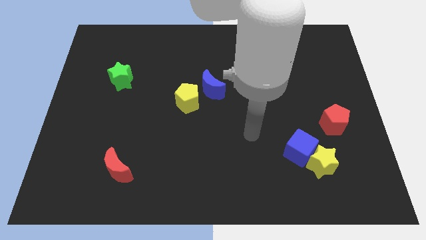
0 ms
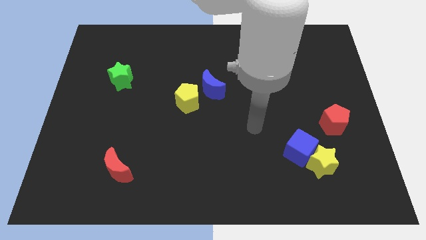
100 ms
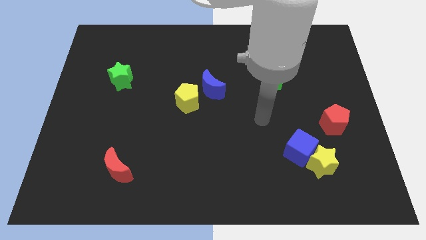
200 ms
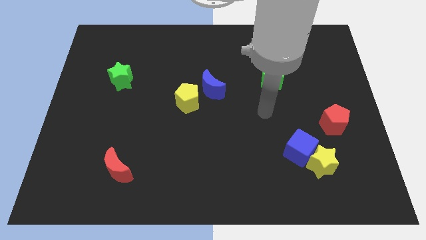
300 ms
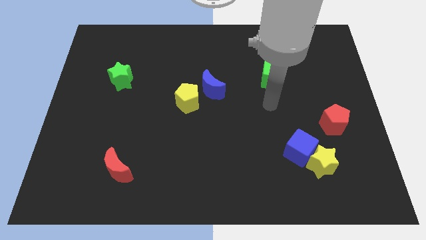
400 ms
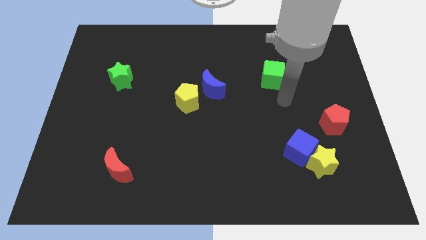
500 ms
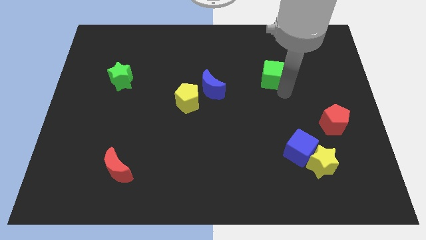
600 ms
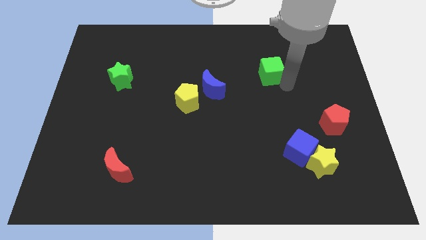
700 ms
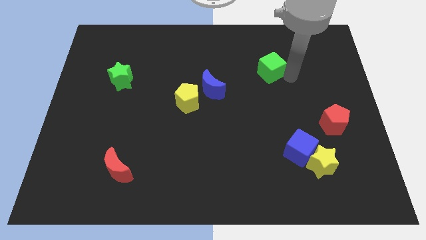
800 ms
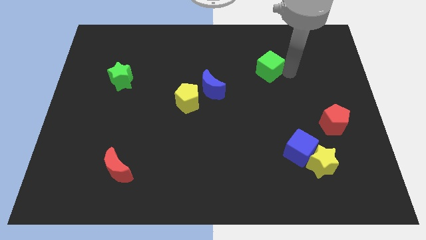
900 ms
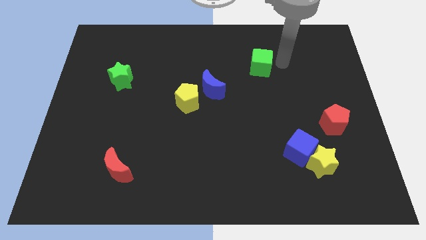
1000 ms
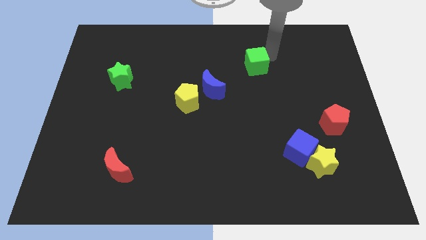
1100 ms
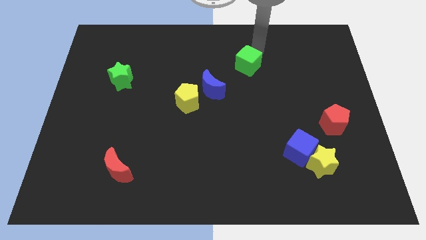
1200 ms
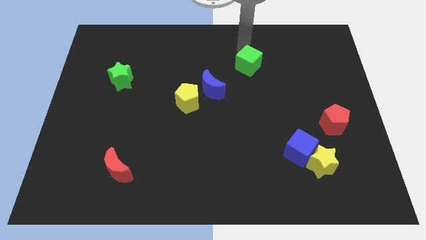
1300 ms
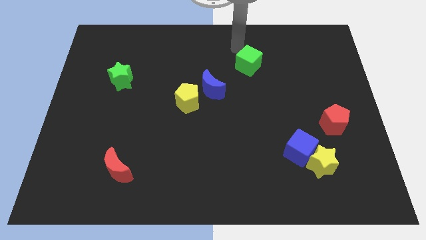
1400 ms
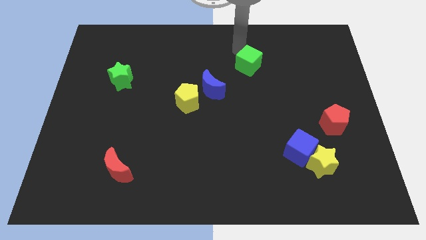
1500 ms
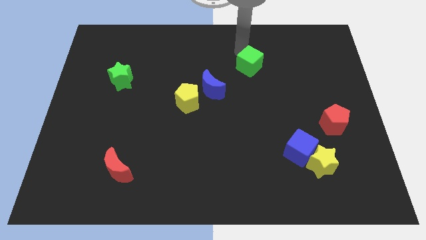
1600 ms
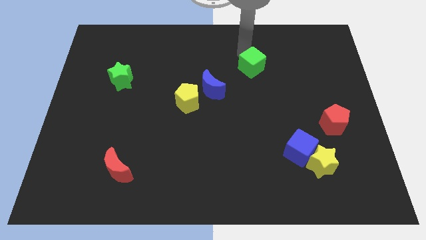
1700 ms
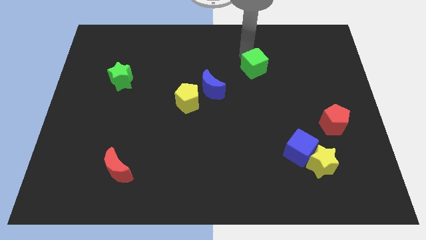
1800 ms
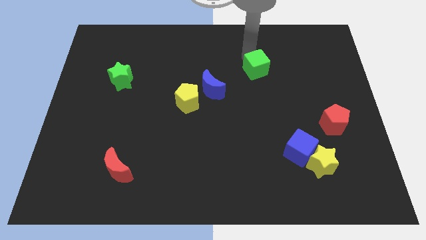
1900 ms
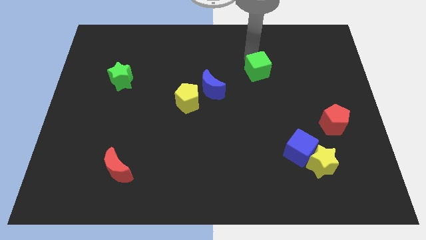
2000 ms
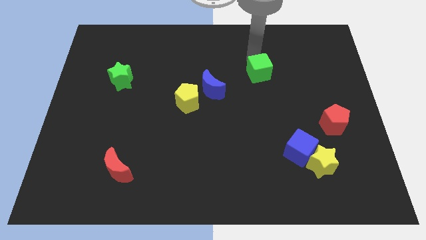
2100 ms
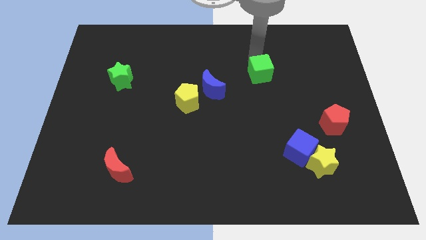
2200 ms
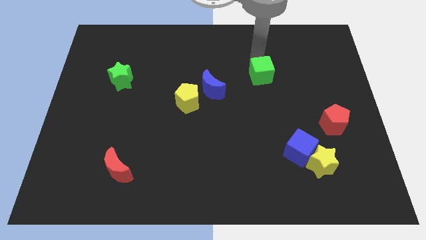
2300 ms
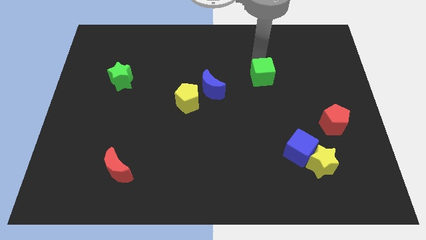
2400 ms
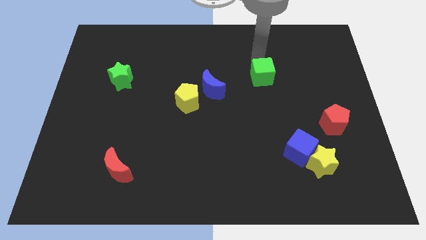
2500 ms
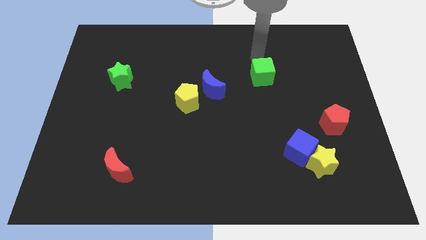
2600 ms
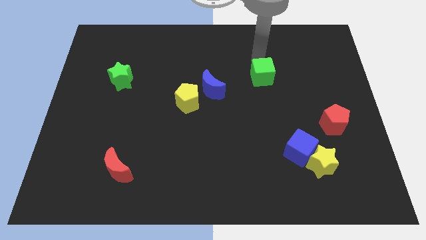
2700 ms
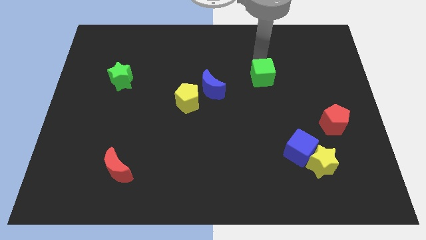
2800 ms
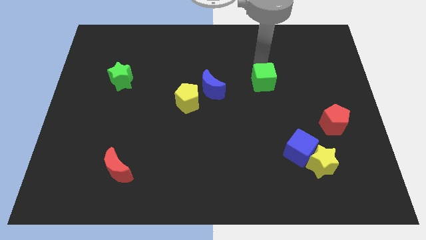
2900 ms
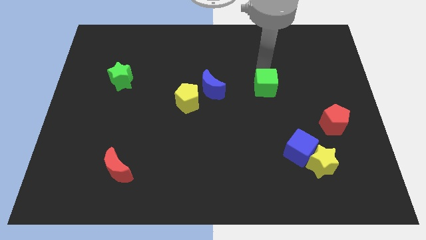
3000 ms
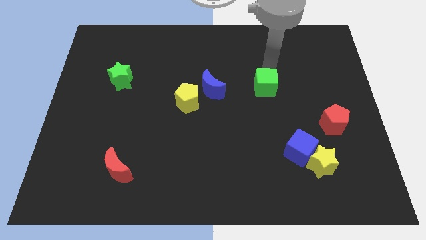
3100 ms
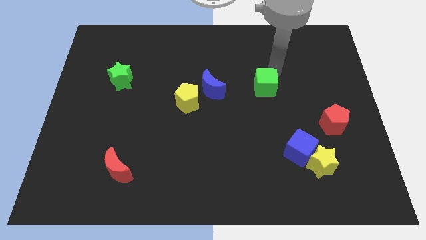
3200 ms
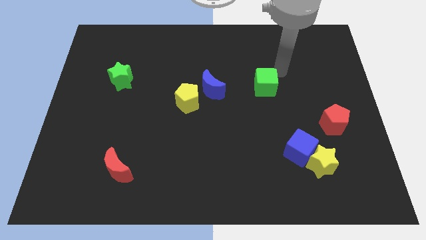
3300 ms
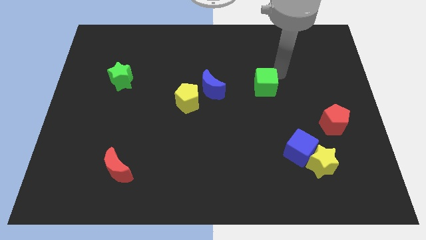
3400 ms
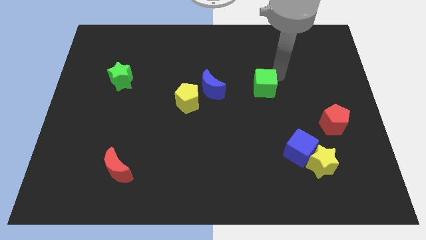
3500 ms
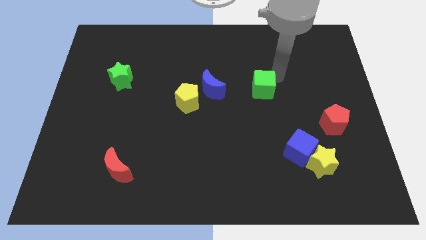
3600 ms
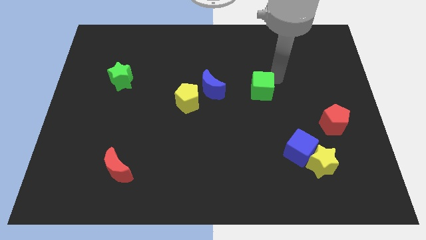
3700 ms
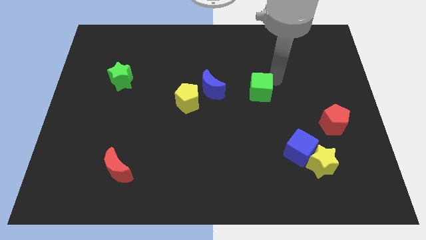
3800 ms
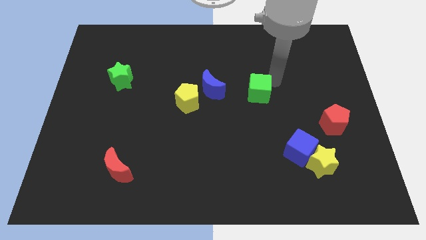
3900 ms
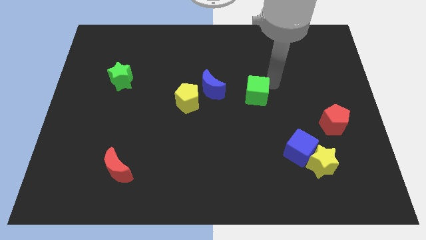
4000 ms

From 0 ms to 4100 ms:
slightly move the green cube downwards and to the left

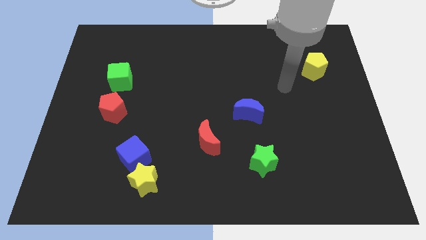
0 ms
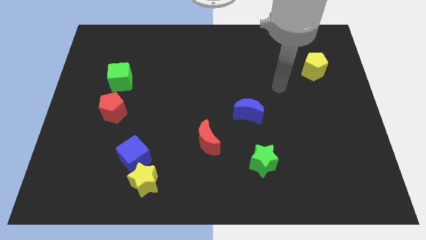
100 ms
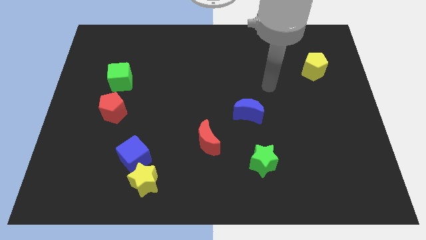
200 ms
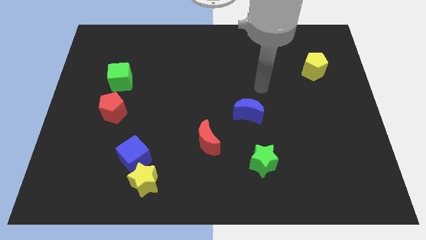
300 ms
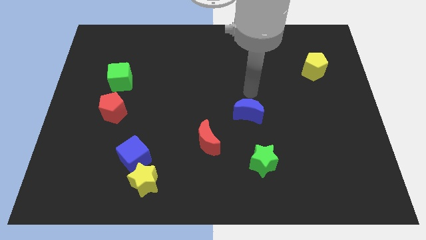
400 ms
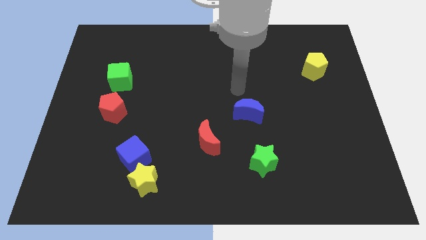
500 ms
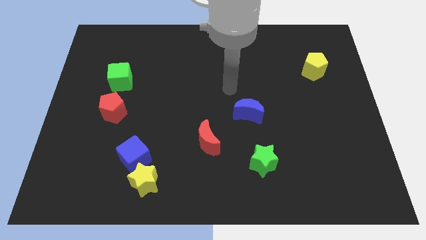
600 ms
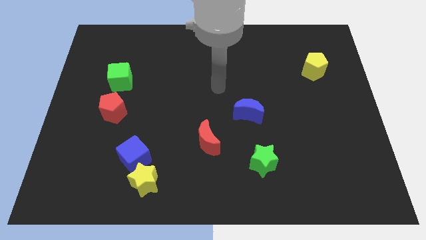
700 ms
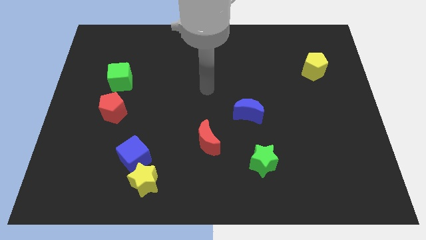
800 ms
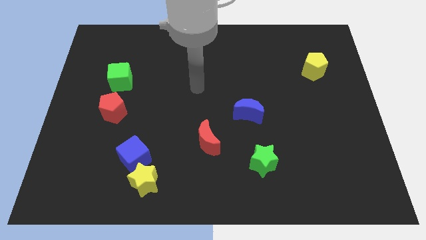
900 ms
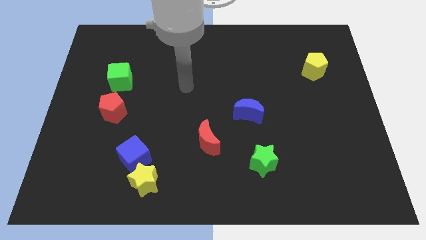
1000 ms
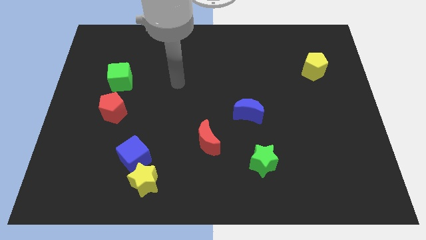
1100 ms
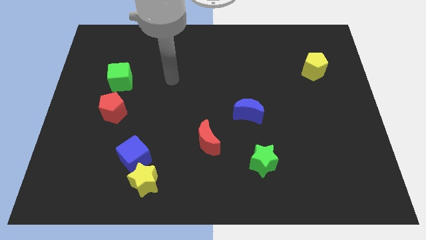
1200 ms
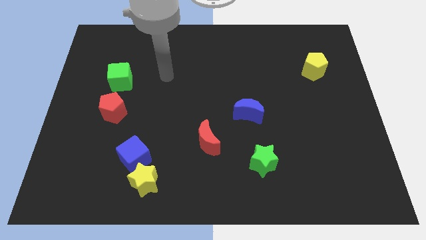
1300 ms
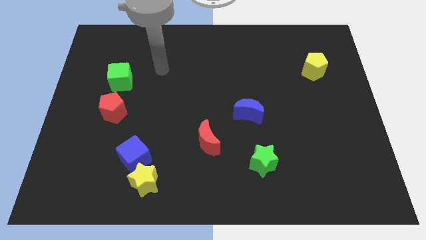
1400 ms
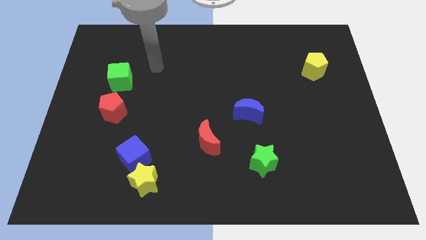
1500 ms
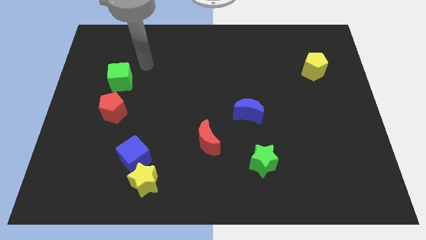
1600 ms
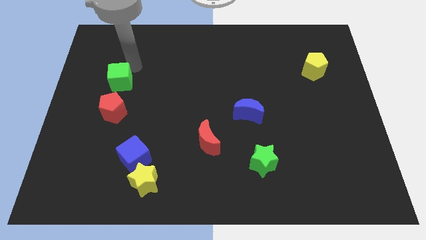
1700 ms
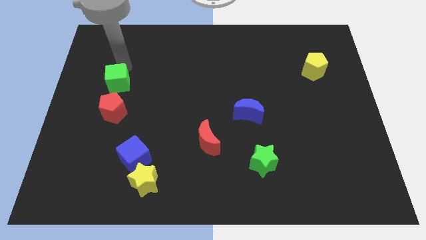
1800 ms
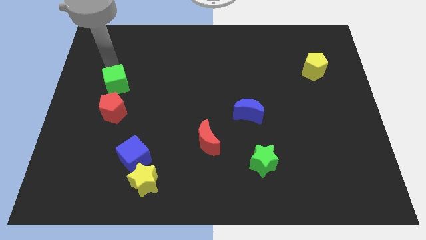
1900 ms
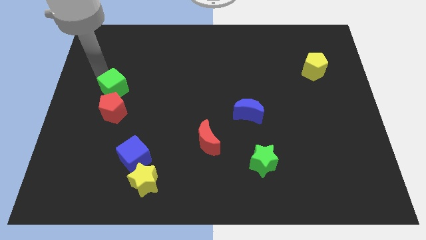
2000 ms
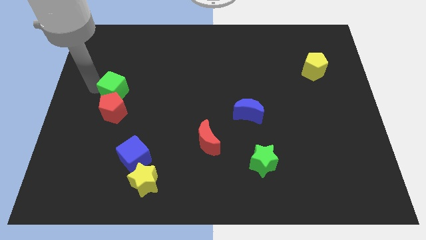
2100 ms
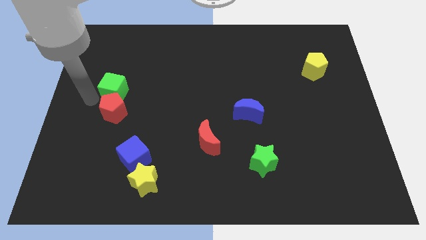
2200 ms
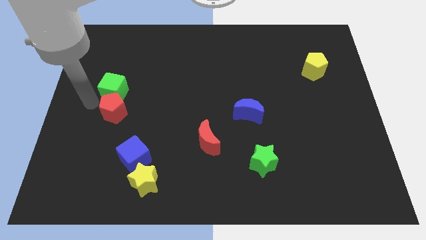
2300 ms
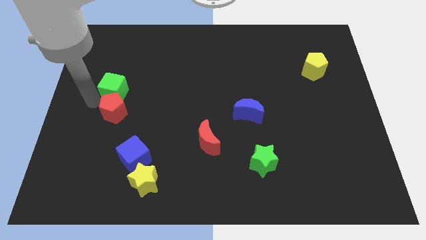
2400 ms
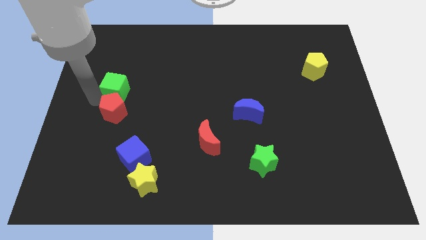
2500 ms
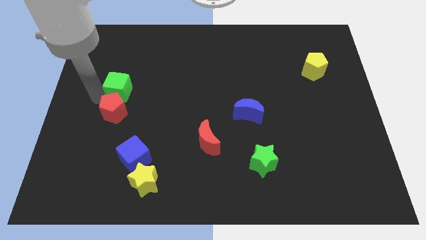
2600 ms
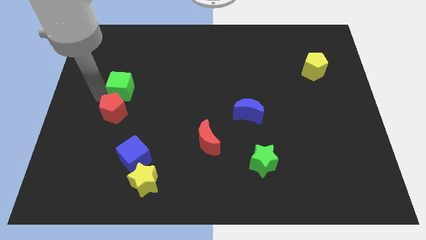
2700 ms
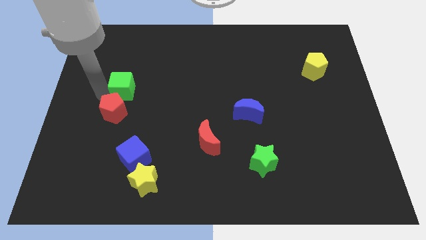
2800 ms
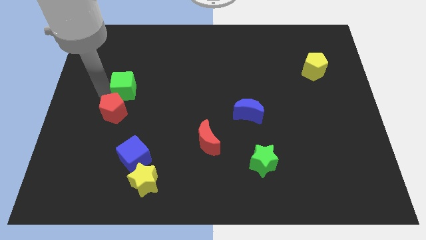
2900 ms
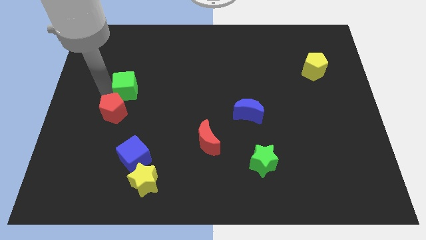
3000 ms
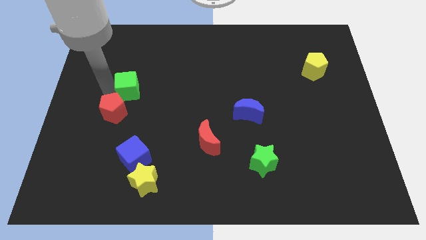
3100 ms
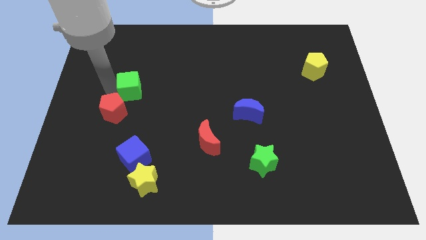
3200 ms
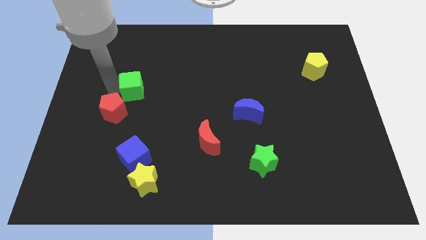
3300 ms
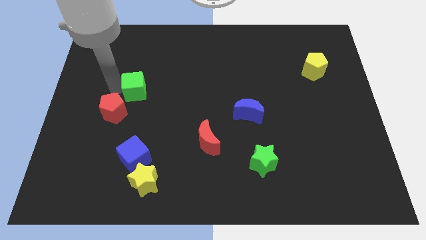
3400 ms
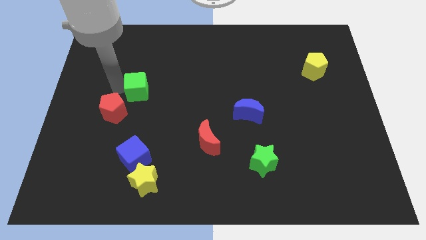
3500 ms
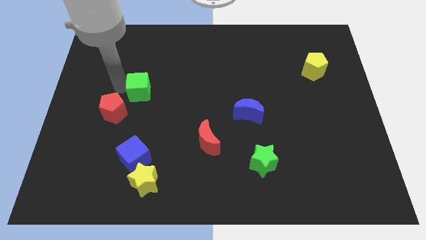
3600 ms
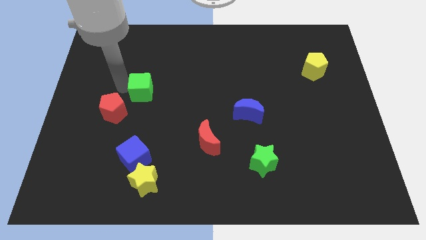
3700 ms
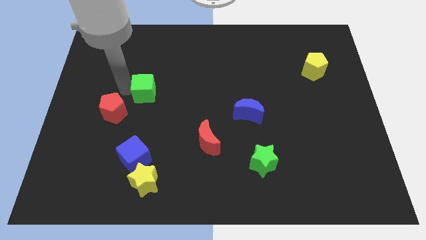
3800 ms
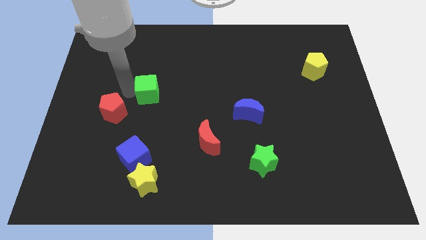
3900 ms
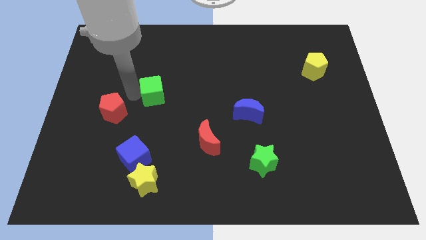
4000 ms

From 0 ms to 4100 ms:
move the green cube a little bit to the right

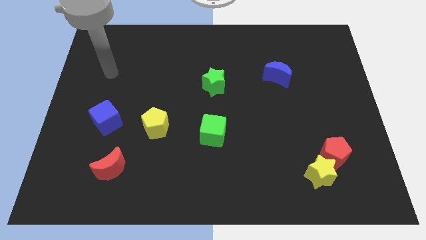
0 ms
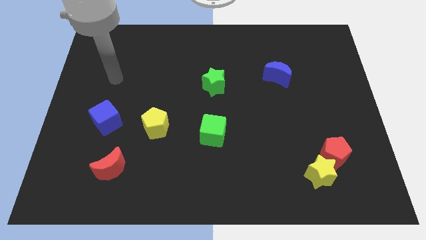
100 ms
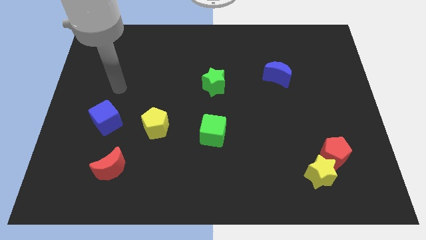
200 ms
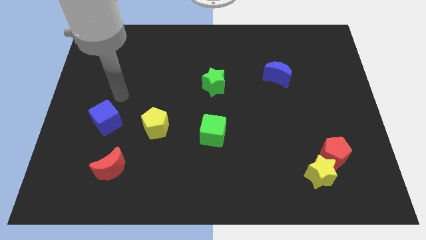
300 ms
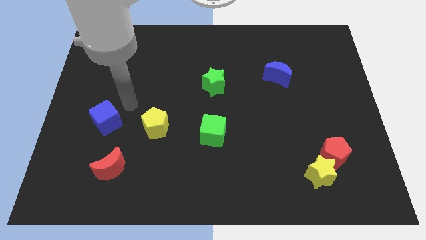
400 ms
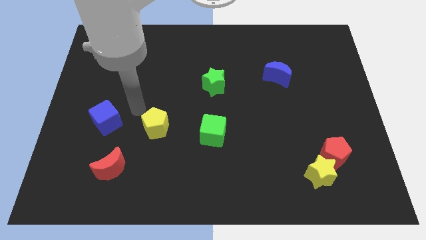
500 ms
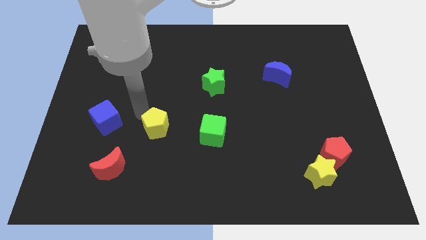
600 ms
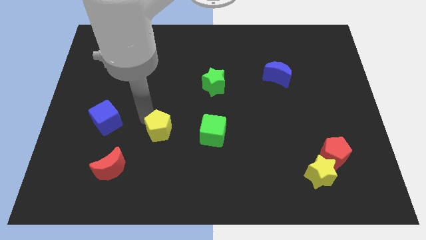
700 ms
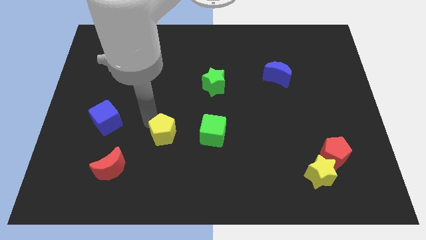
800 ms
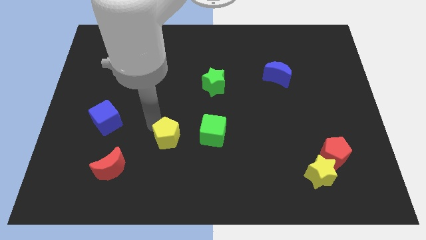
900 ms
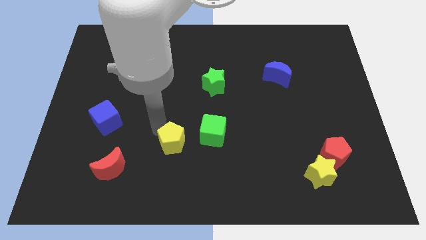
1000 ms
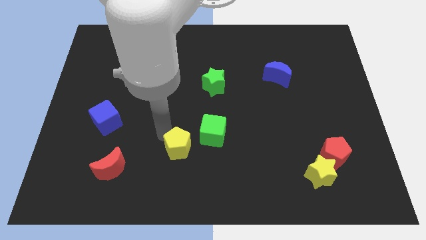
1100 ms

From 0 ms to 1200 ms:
move the yellow pentagon slightly down and to the right
